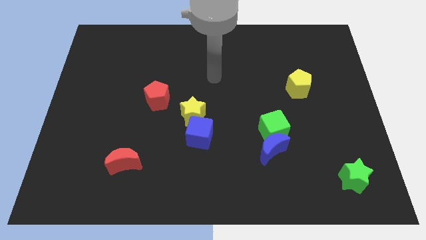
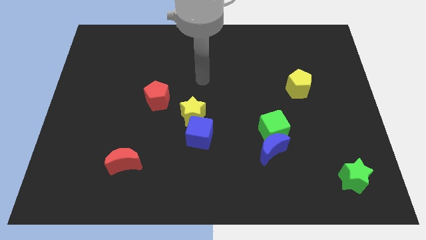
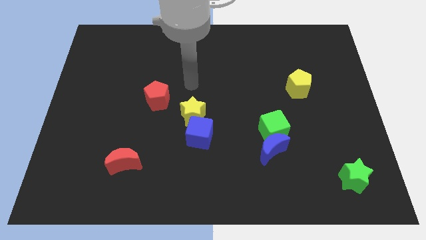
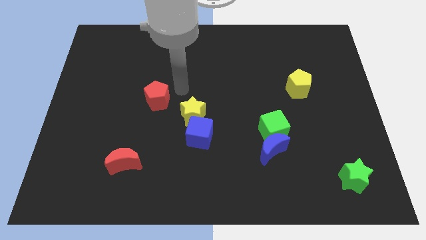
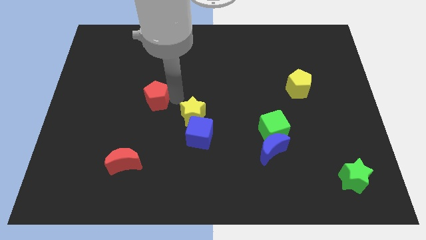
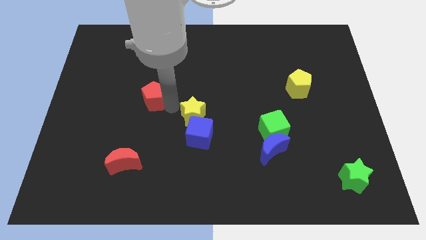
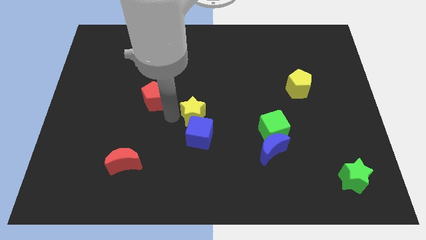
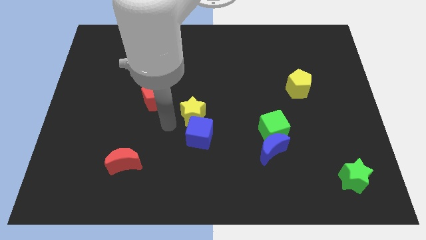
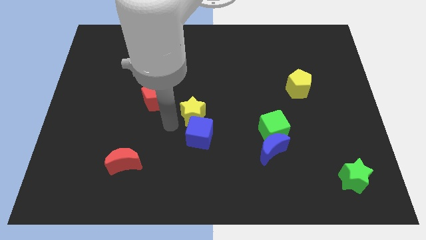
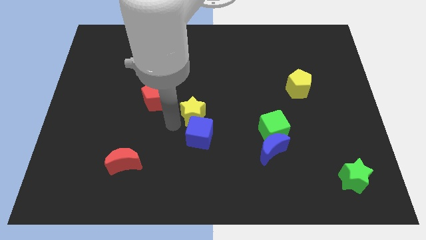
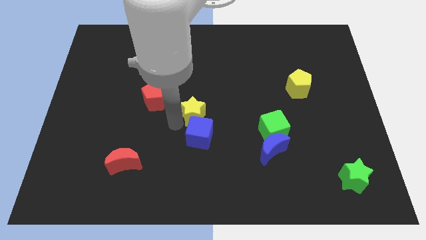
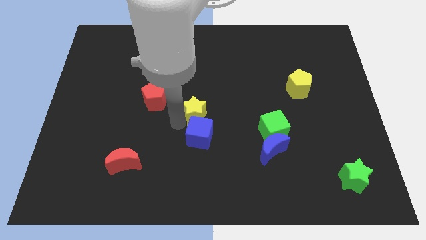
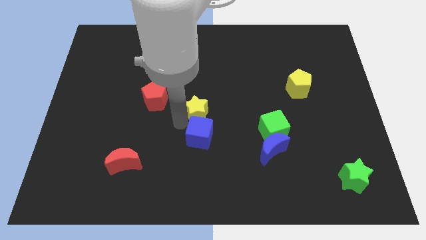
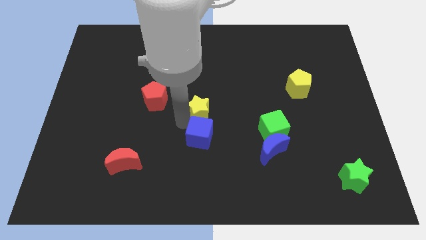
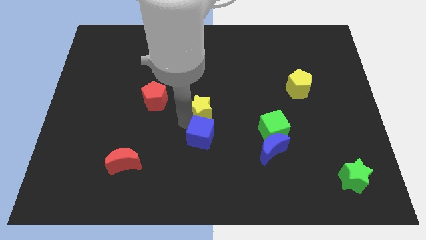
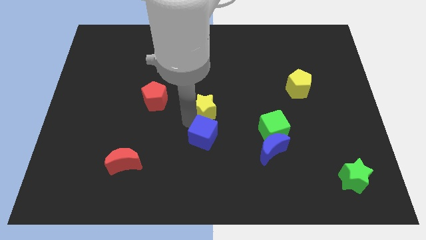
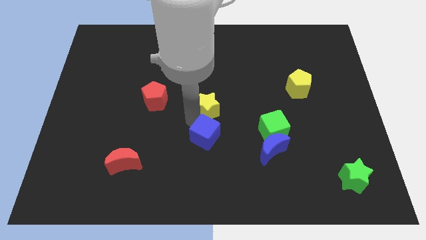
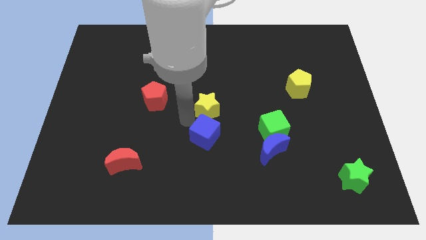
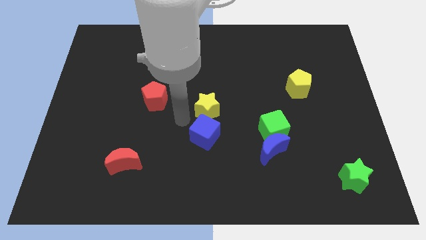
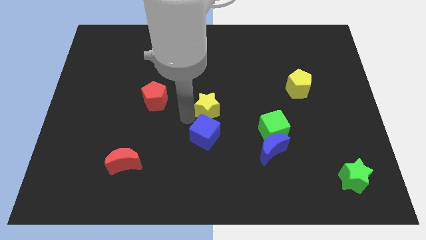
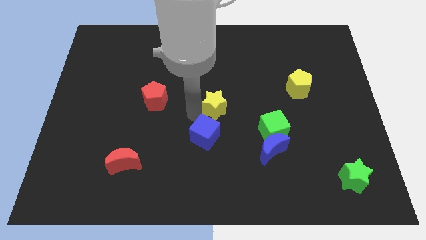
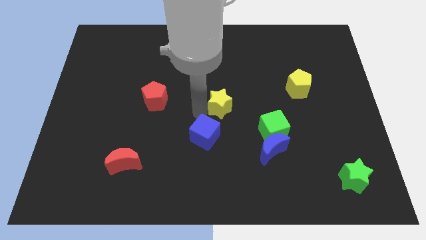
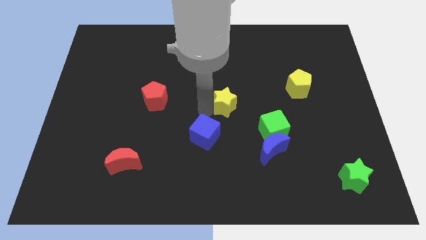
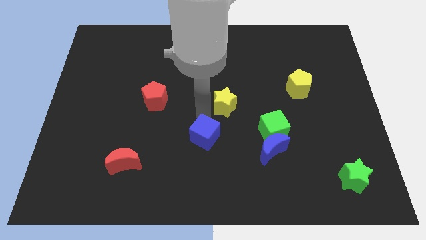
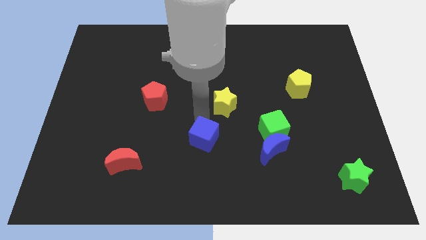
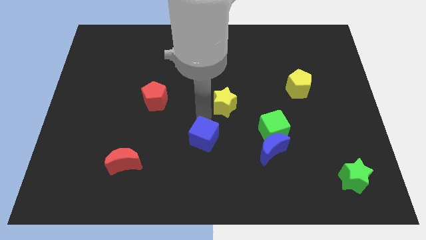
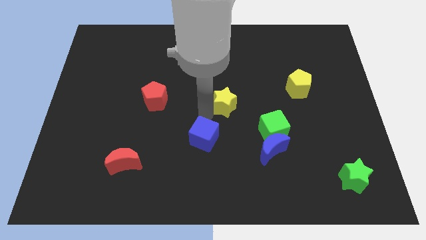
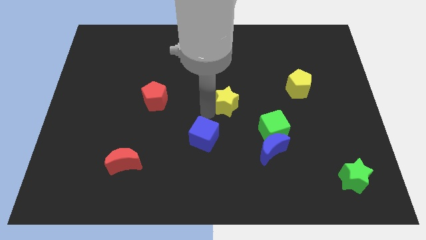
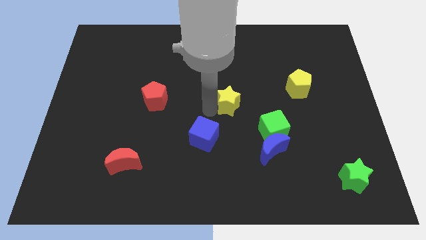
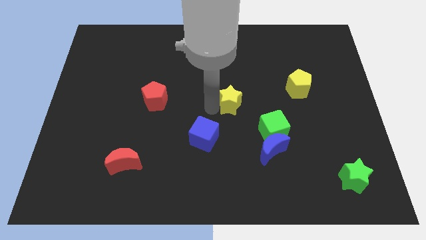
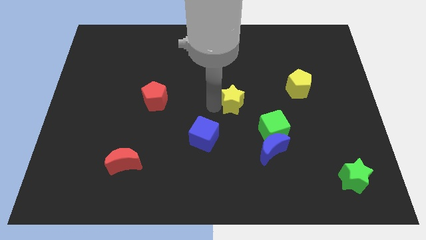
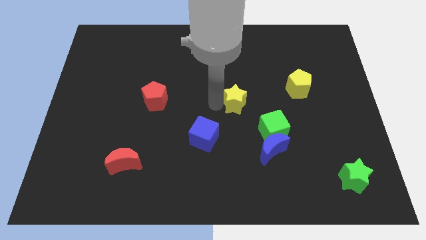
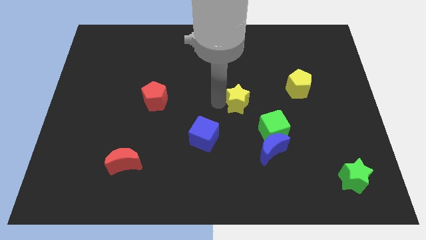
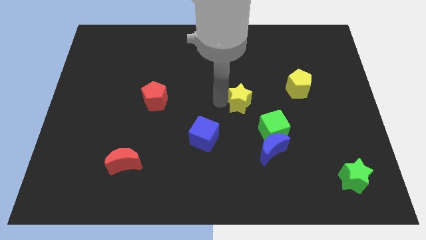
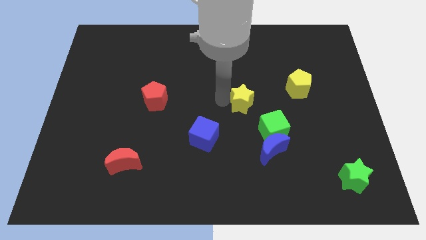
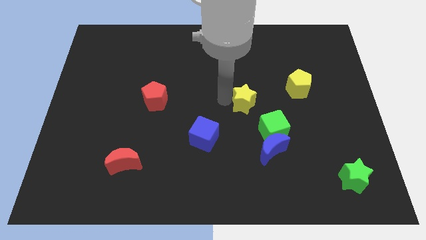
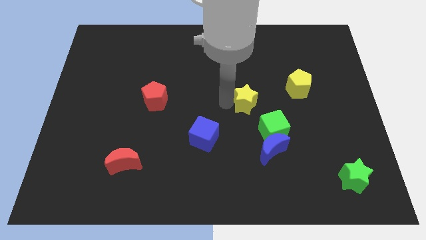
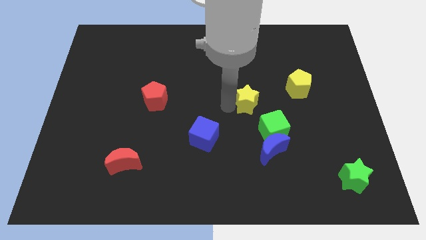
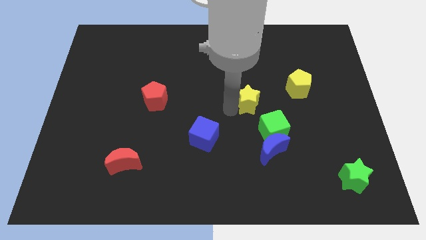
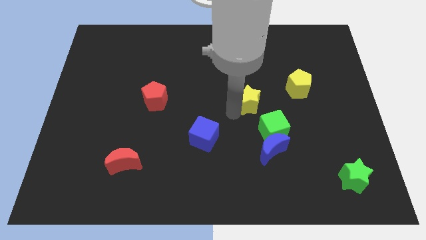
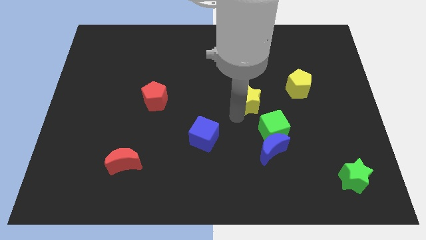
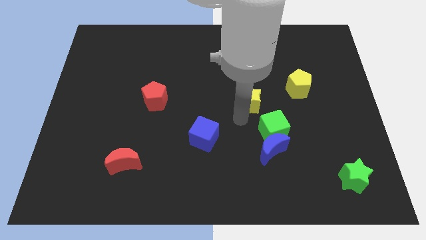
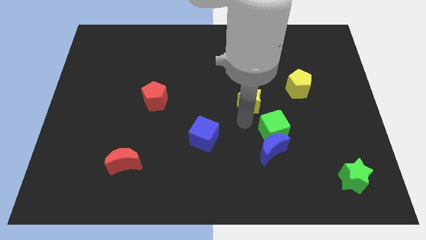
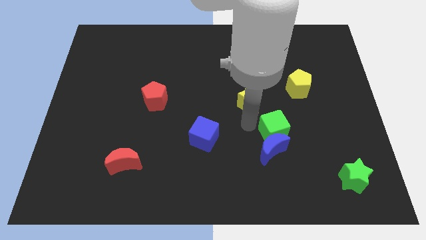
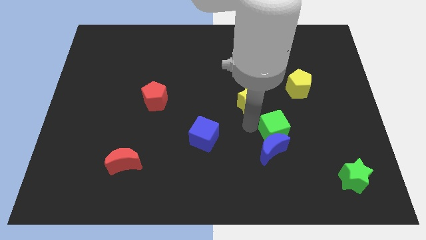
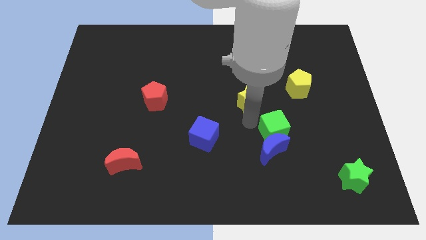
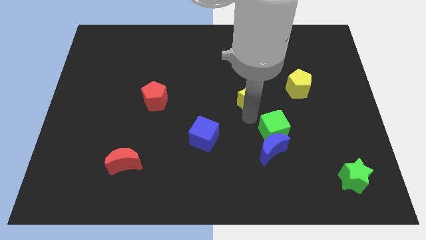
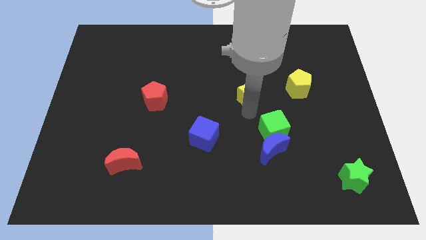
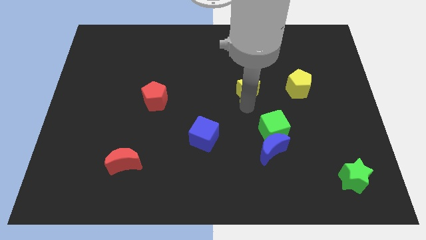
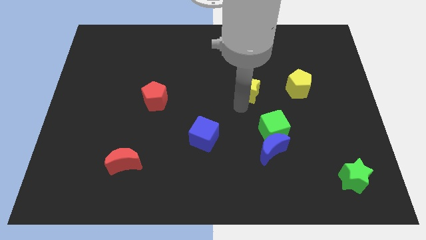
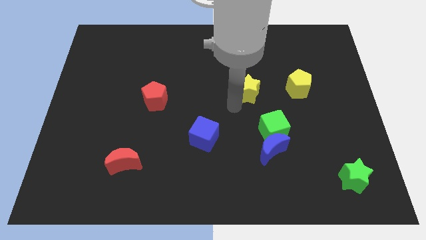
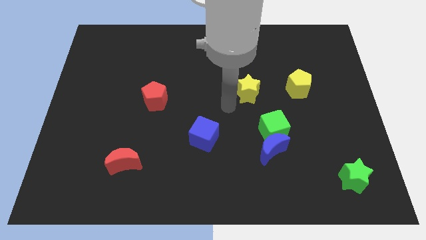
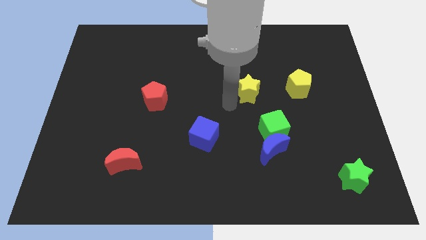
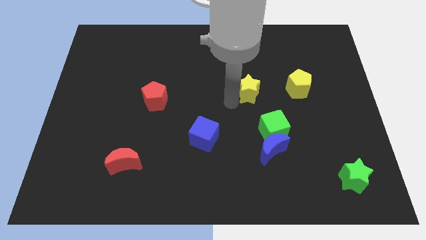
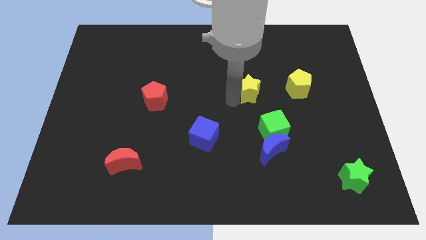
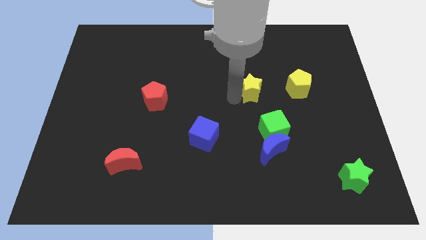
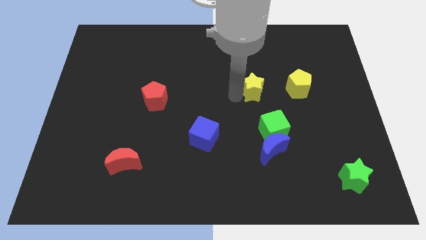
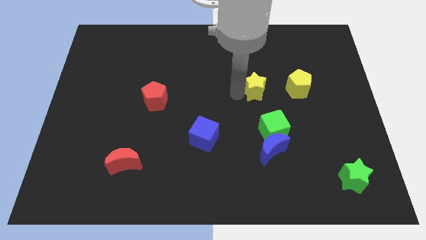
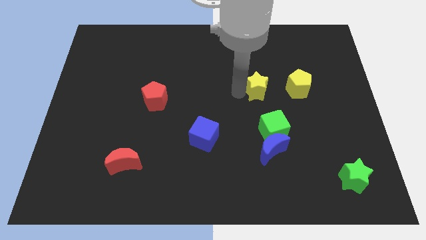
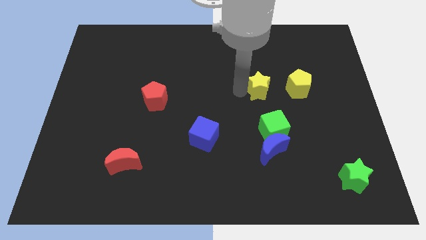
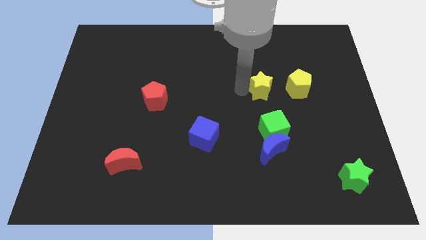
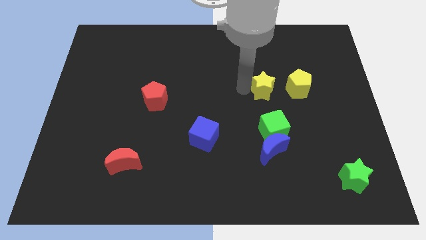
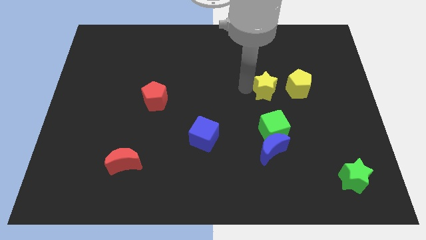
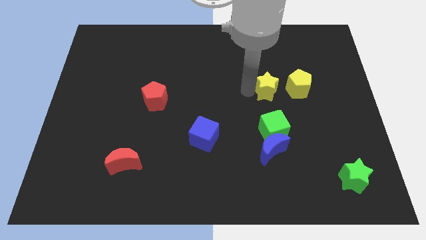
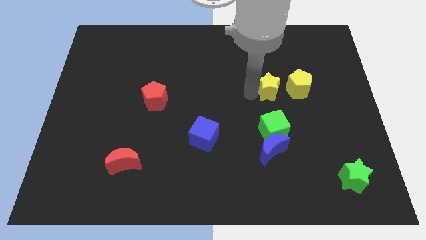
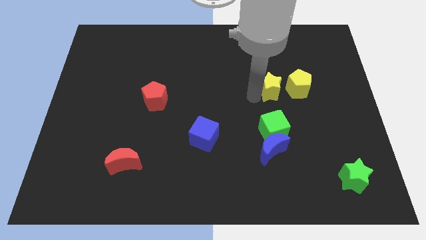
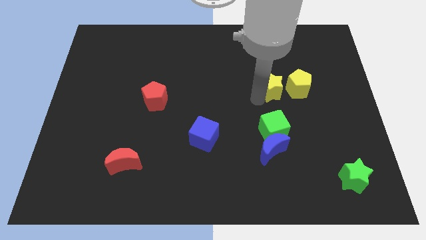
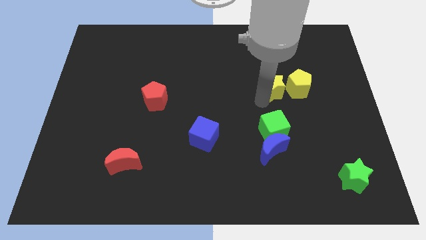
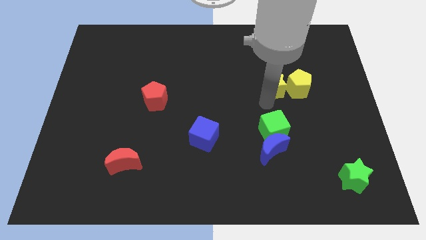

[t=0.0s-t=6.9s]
slide the yellow star to the top left side of the yellow pentagon

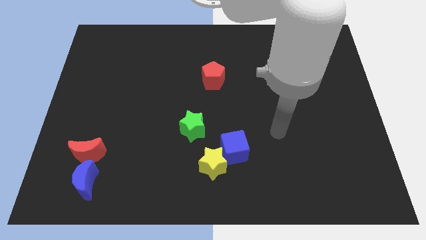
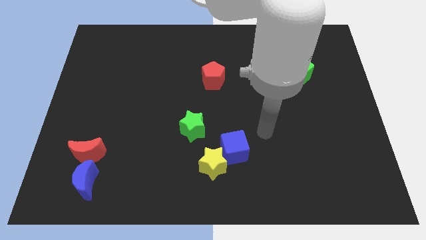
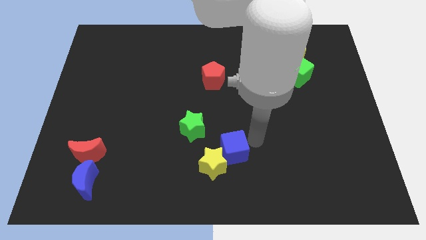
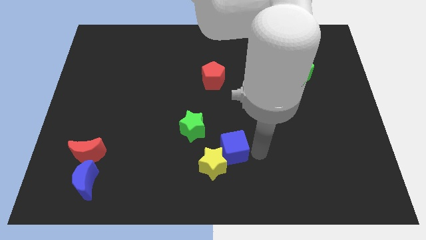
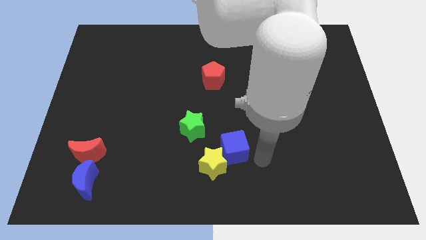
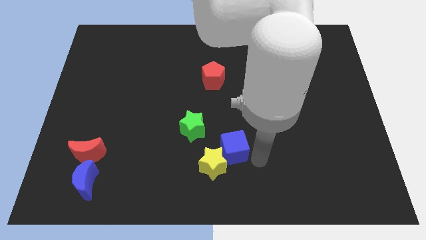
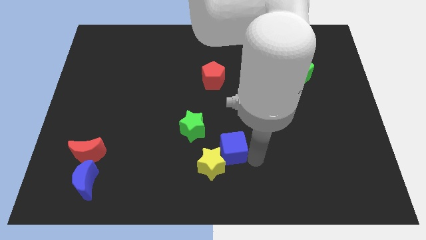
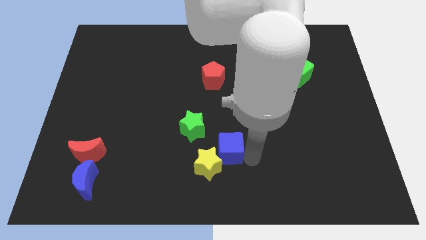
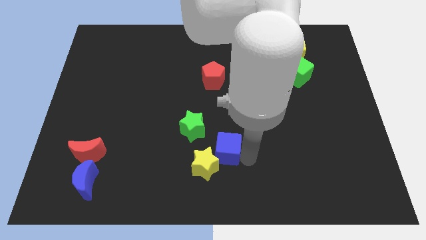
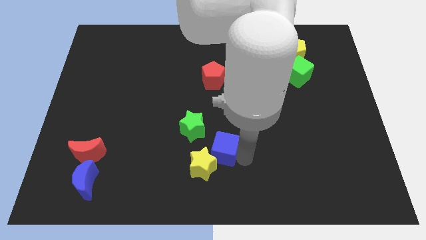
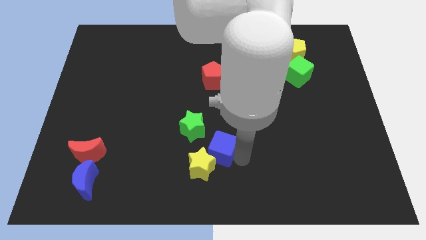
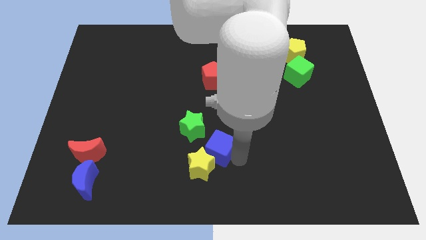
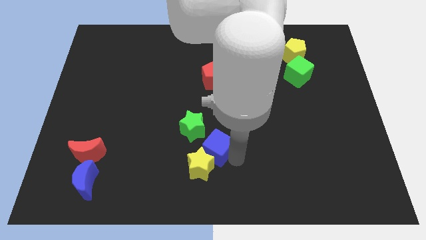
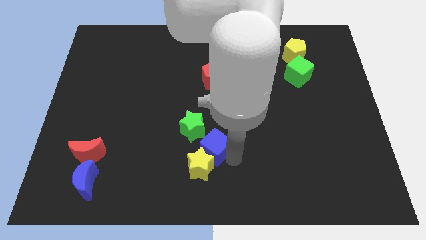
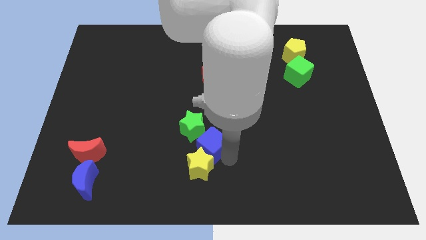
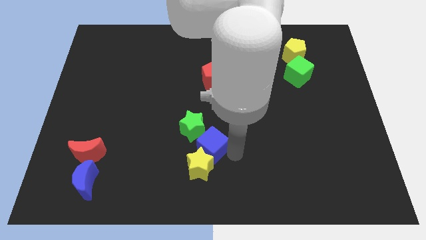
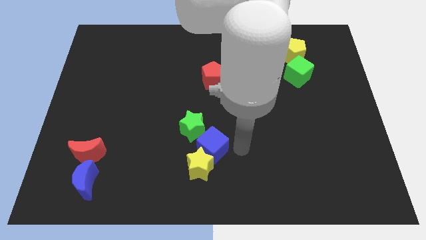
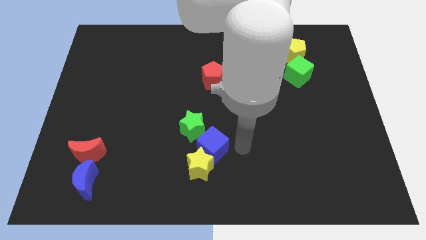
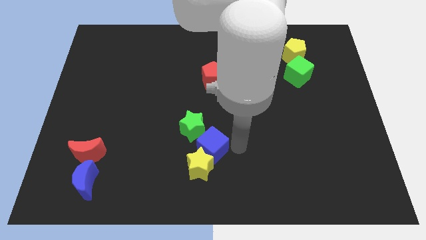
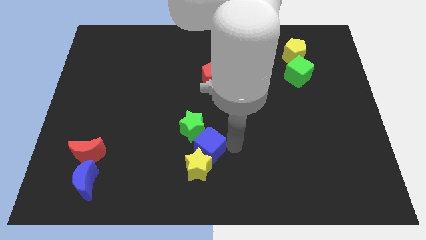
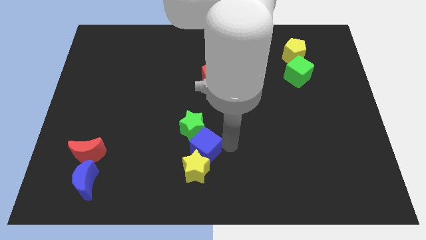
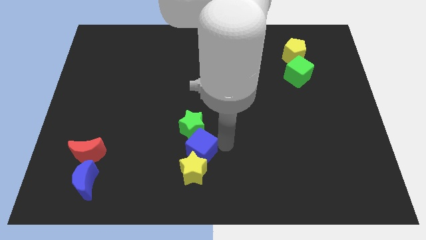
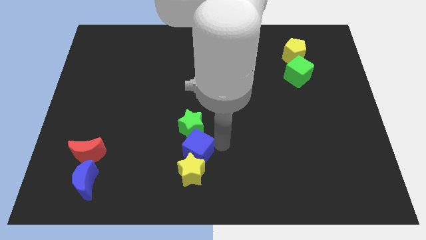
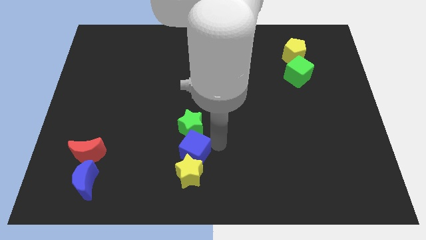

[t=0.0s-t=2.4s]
move the blue cube diagonally down and to the left of the green star
